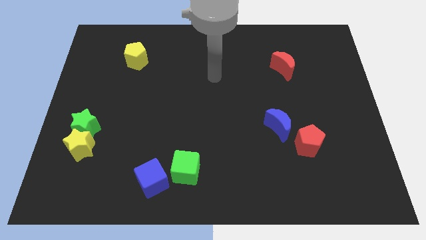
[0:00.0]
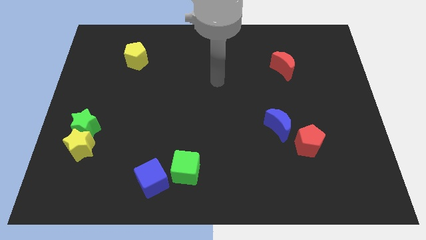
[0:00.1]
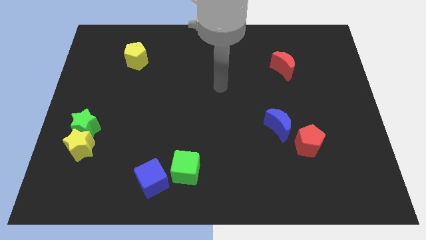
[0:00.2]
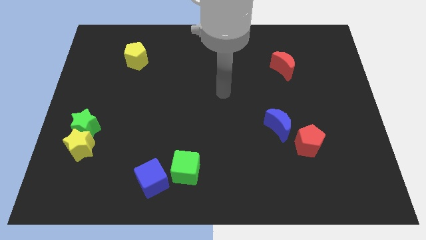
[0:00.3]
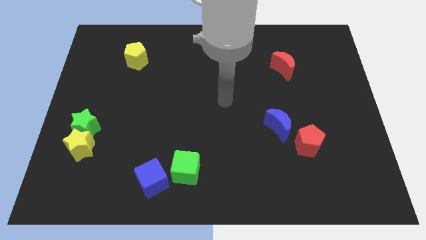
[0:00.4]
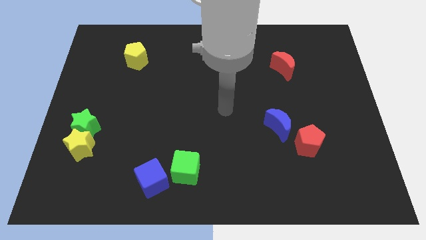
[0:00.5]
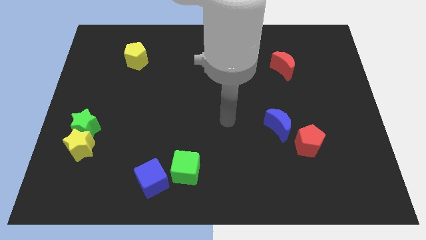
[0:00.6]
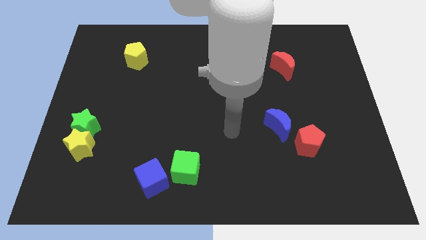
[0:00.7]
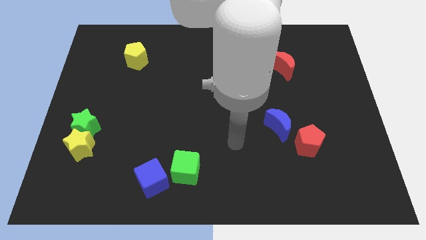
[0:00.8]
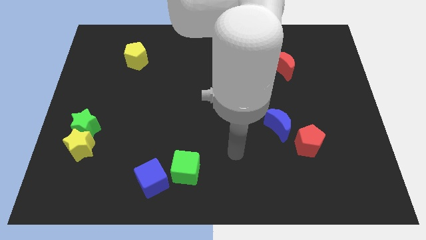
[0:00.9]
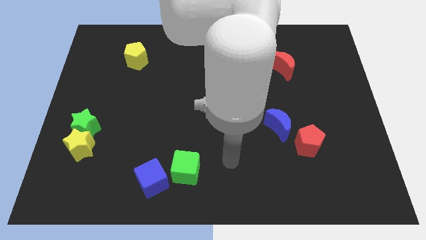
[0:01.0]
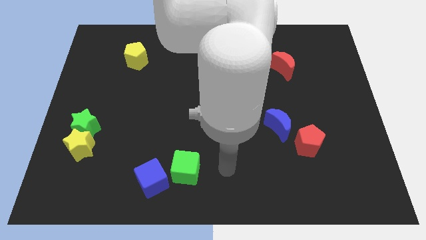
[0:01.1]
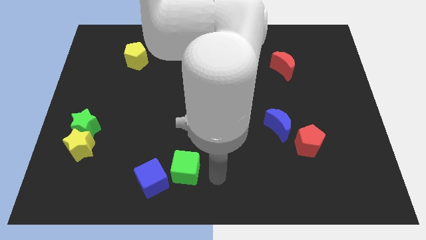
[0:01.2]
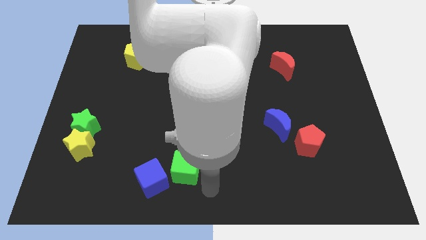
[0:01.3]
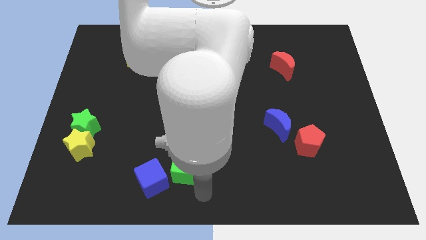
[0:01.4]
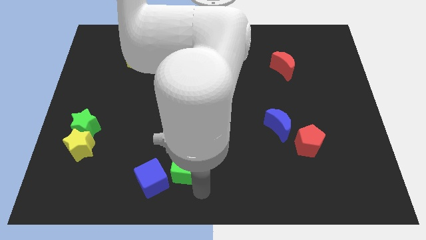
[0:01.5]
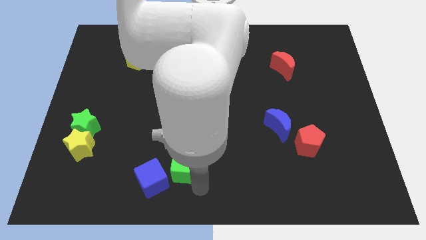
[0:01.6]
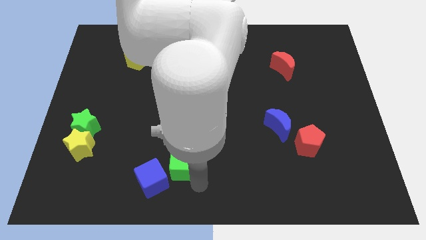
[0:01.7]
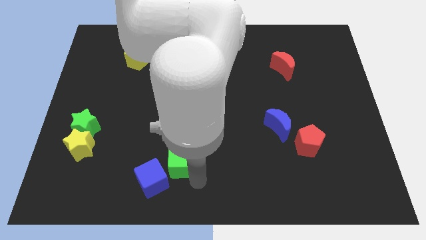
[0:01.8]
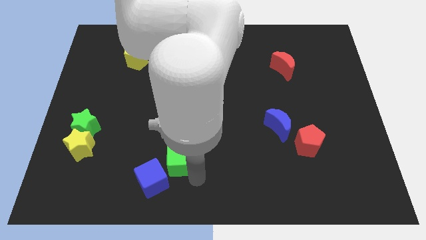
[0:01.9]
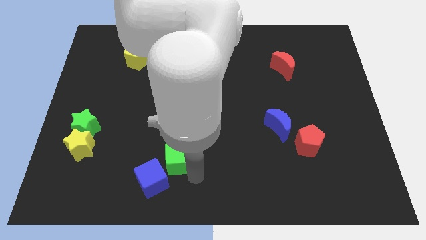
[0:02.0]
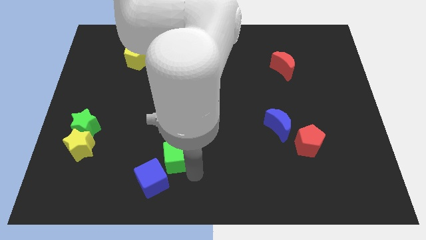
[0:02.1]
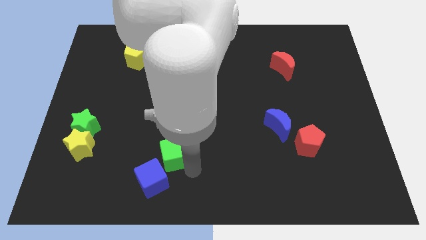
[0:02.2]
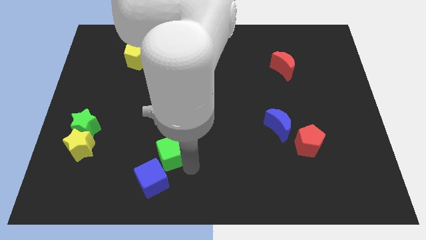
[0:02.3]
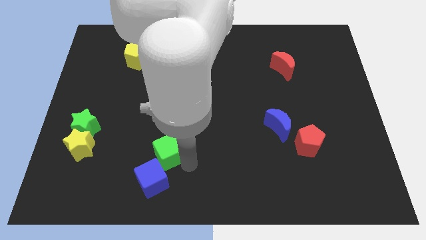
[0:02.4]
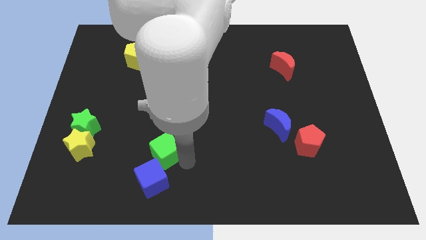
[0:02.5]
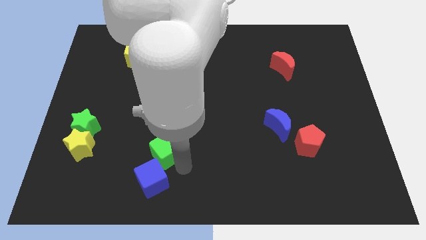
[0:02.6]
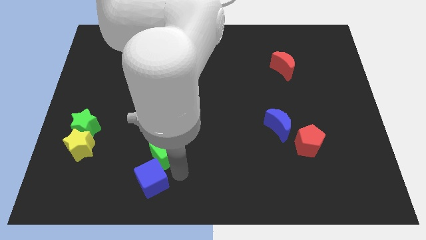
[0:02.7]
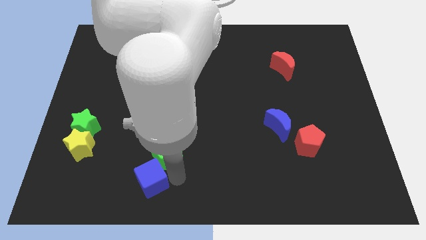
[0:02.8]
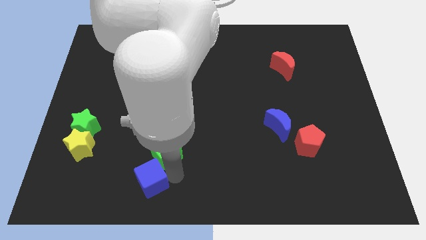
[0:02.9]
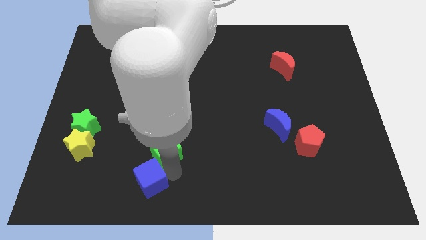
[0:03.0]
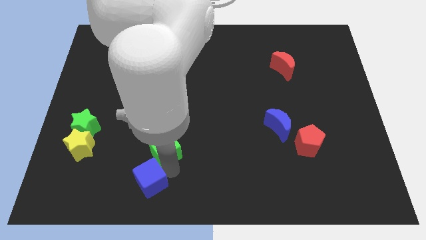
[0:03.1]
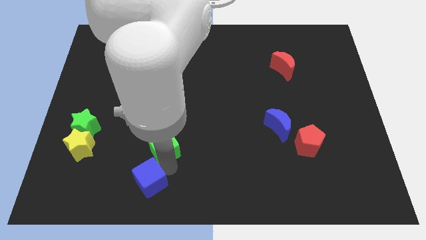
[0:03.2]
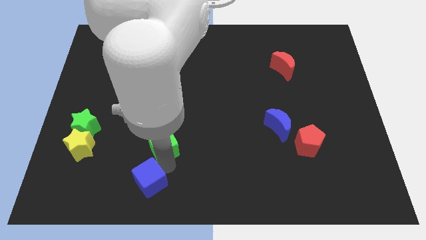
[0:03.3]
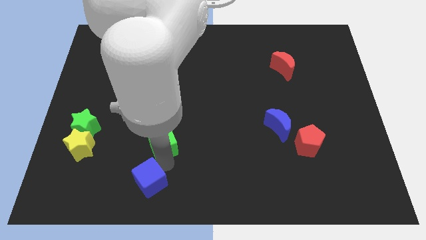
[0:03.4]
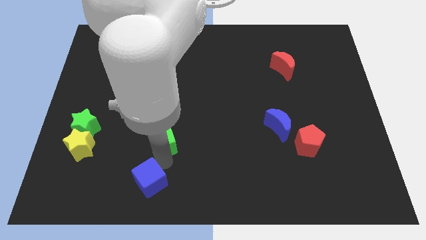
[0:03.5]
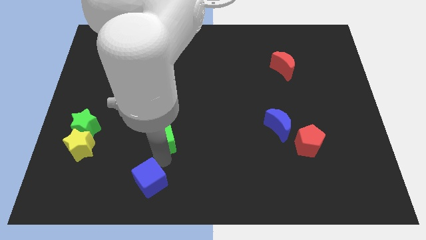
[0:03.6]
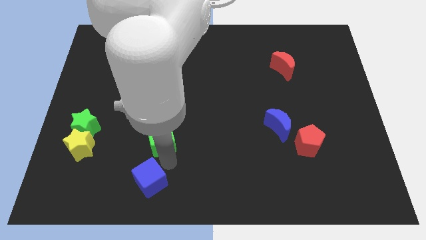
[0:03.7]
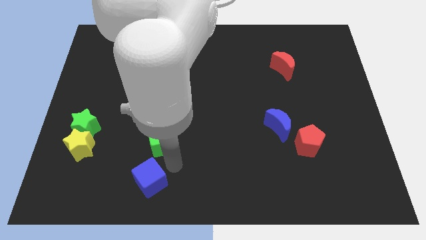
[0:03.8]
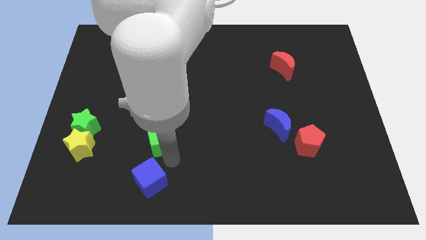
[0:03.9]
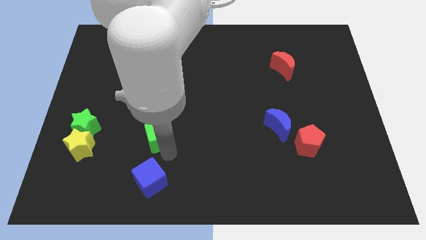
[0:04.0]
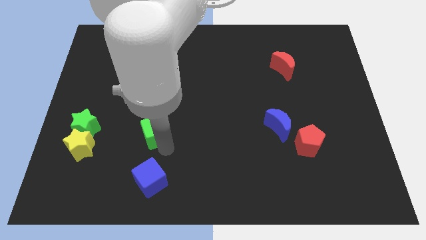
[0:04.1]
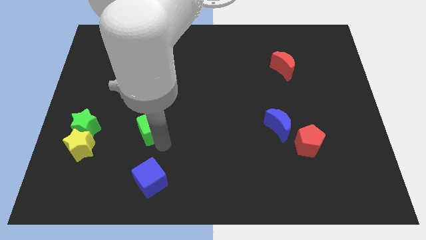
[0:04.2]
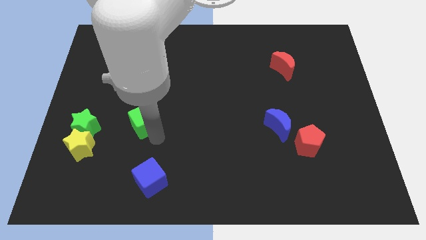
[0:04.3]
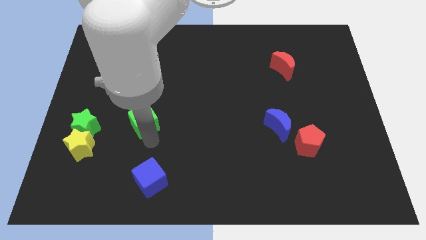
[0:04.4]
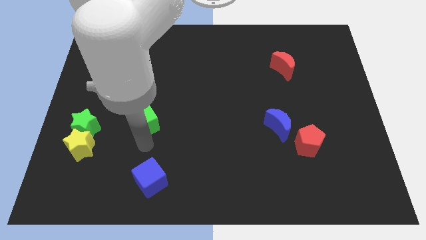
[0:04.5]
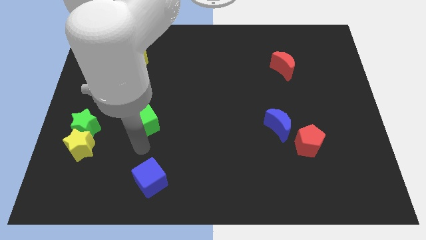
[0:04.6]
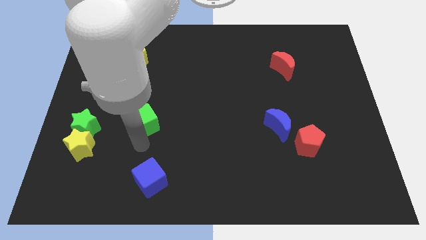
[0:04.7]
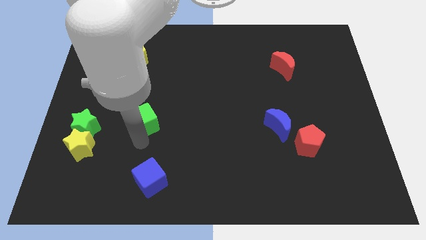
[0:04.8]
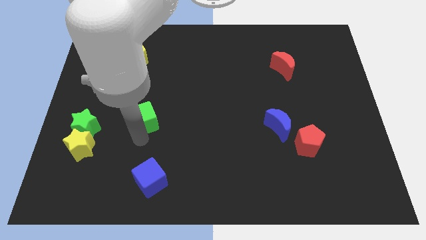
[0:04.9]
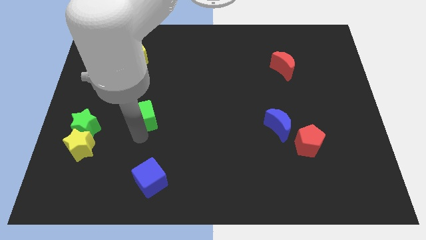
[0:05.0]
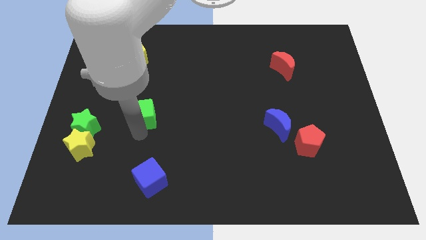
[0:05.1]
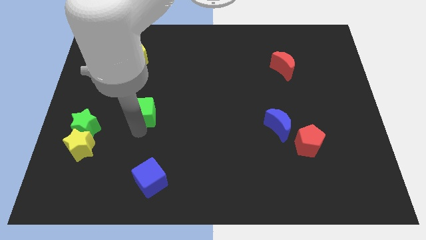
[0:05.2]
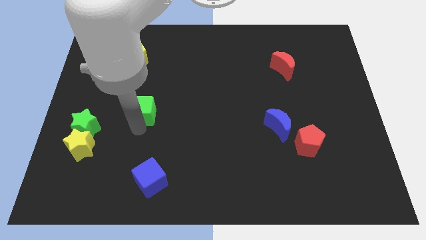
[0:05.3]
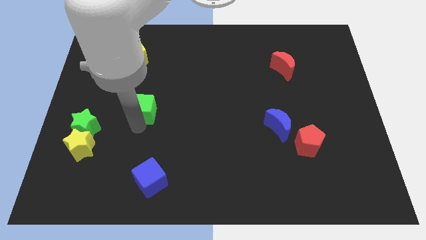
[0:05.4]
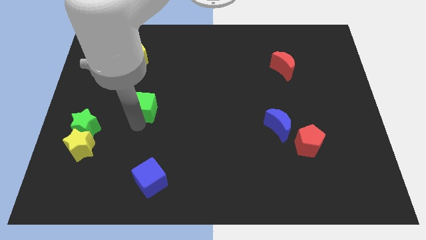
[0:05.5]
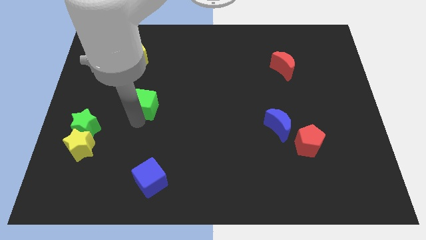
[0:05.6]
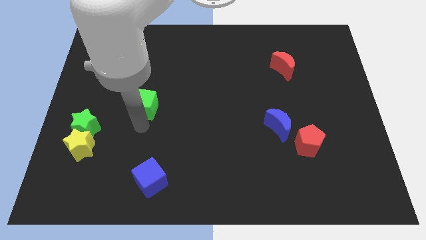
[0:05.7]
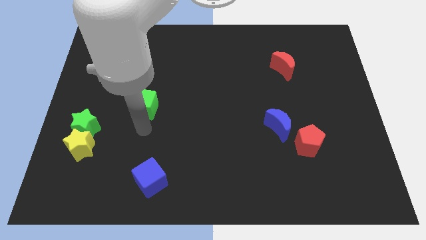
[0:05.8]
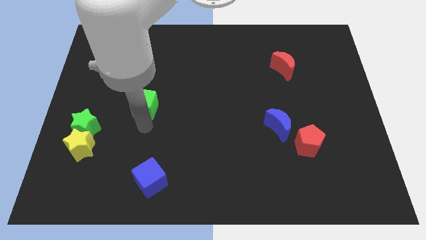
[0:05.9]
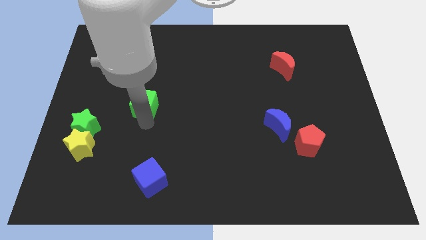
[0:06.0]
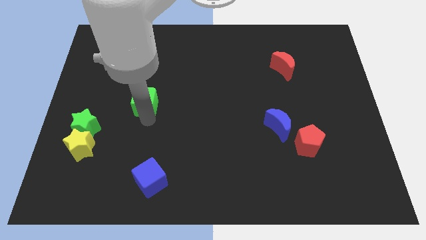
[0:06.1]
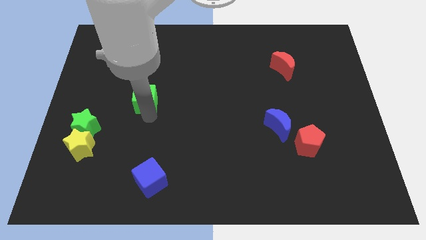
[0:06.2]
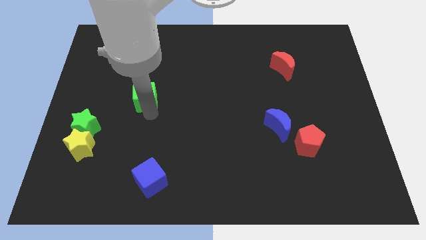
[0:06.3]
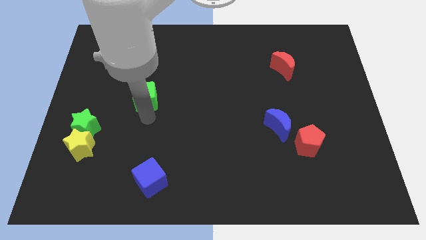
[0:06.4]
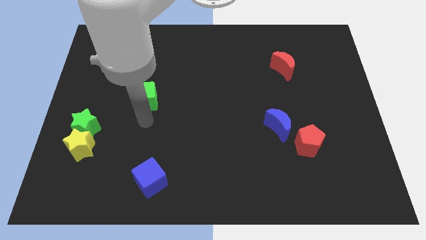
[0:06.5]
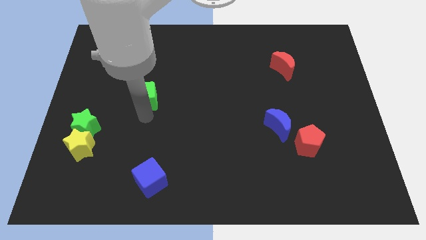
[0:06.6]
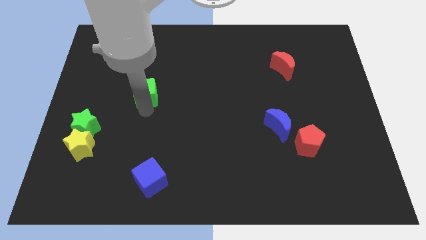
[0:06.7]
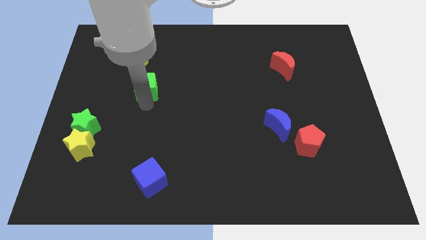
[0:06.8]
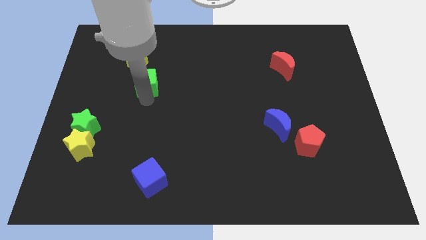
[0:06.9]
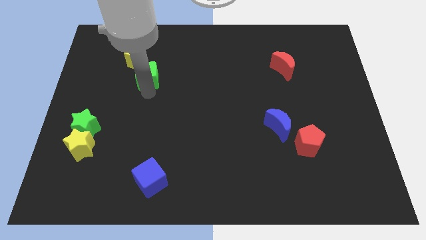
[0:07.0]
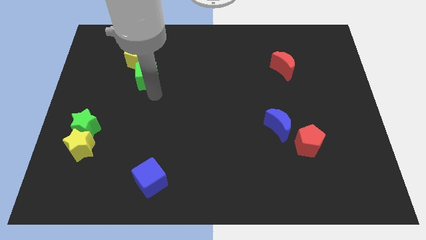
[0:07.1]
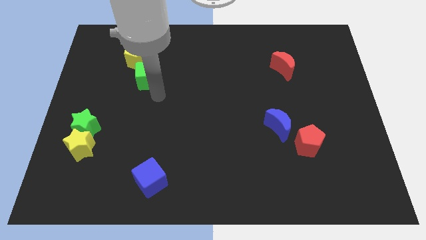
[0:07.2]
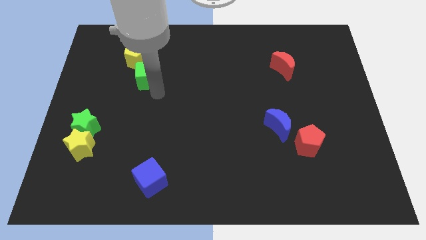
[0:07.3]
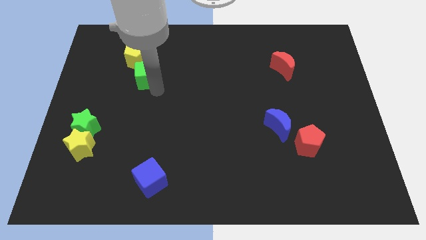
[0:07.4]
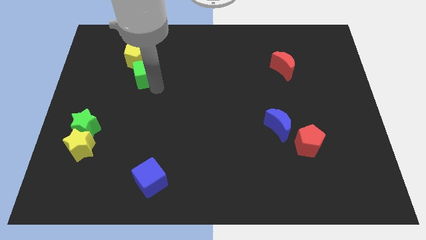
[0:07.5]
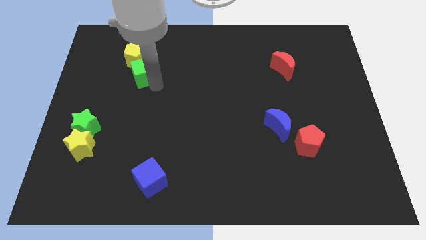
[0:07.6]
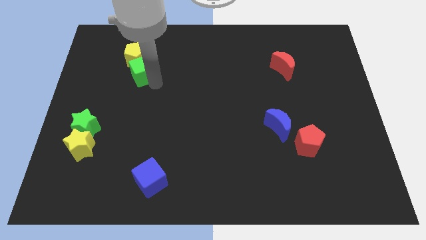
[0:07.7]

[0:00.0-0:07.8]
move the green cube to the yellow pentagon
